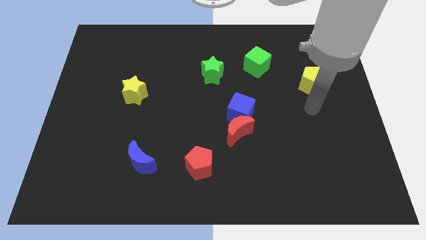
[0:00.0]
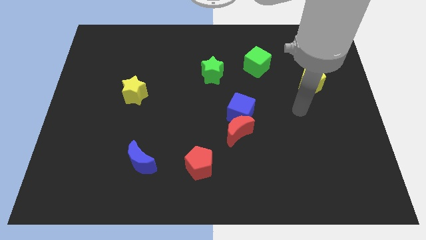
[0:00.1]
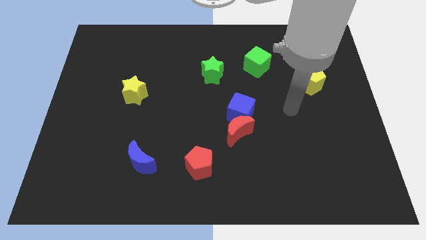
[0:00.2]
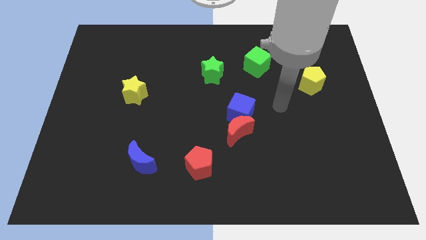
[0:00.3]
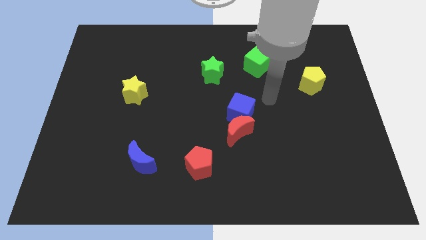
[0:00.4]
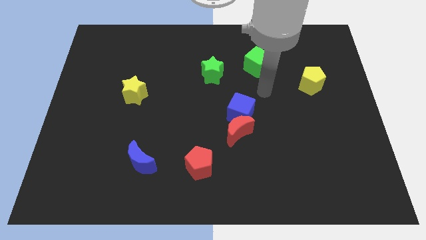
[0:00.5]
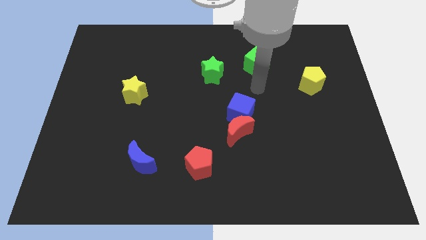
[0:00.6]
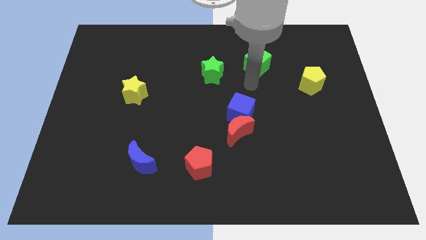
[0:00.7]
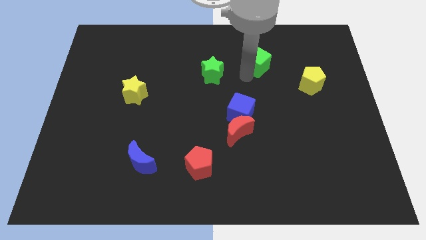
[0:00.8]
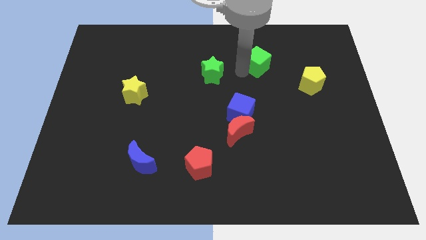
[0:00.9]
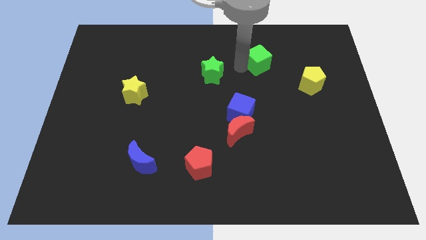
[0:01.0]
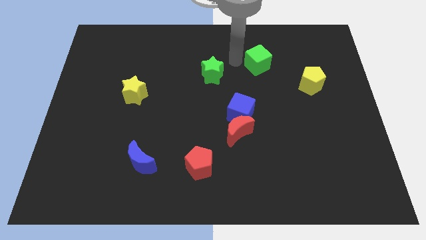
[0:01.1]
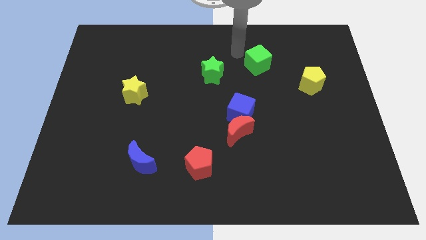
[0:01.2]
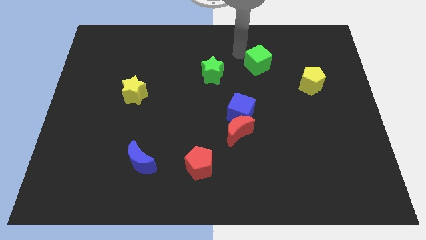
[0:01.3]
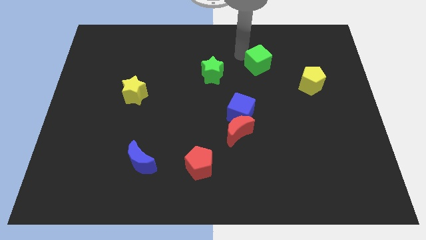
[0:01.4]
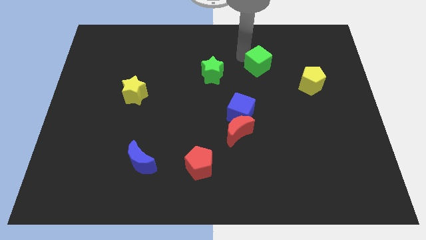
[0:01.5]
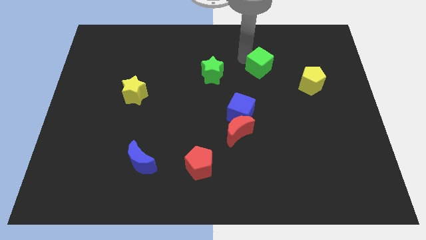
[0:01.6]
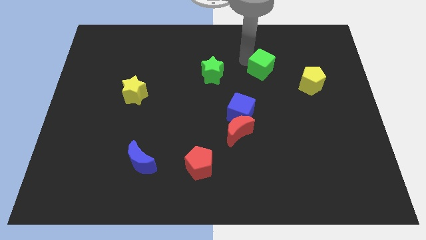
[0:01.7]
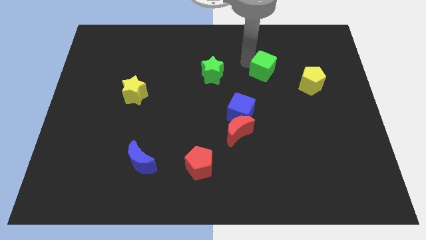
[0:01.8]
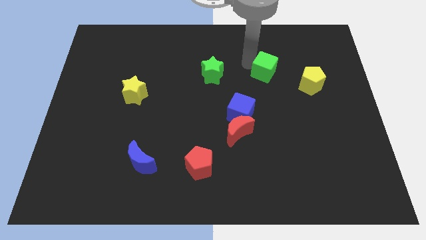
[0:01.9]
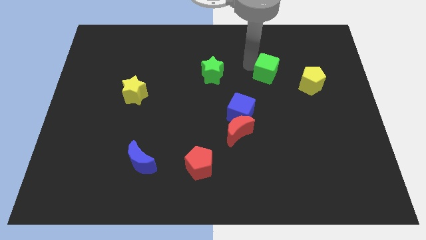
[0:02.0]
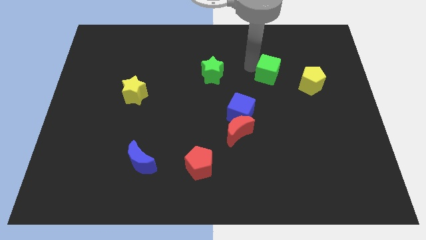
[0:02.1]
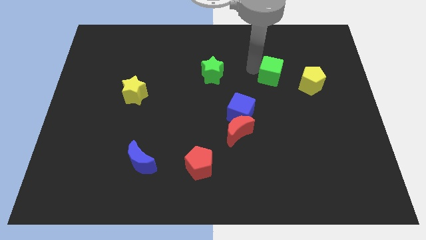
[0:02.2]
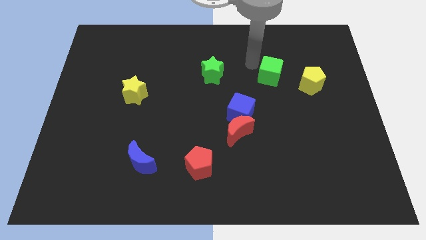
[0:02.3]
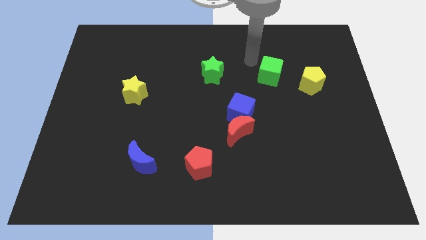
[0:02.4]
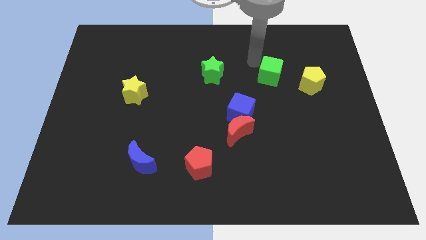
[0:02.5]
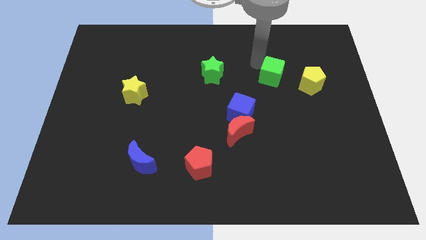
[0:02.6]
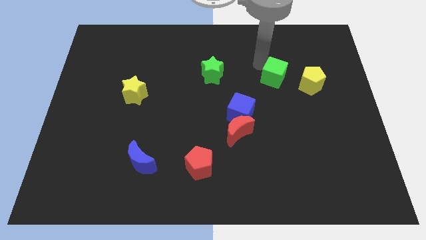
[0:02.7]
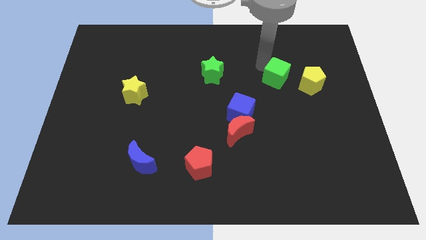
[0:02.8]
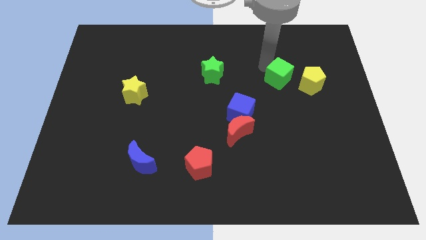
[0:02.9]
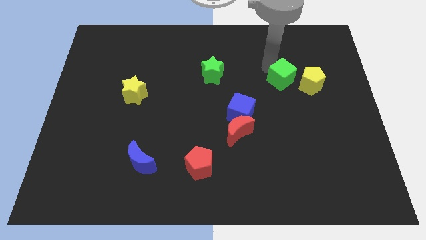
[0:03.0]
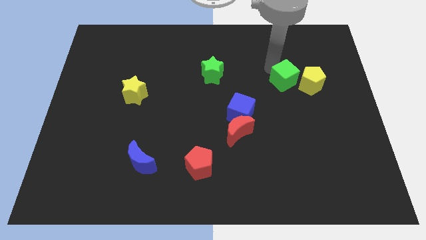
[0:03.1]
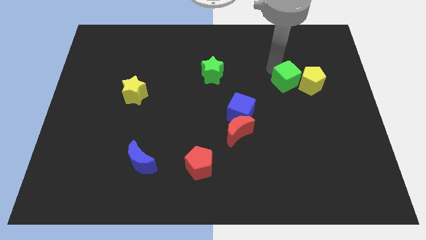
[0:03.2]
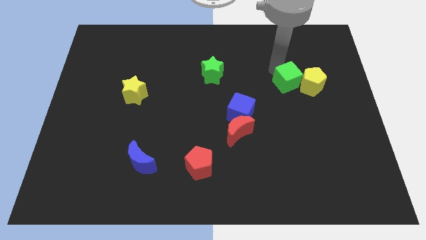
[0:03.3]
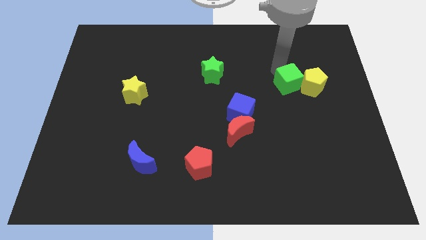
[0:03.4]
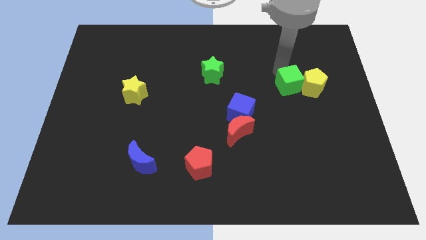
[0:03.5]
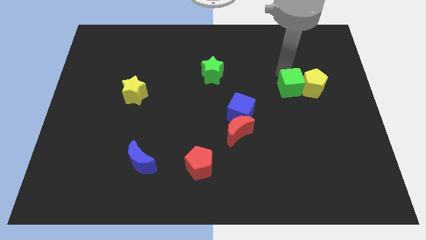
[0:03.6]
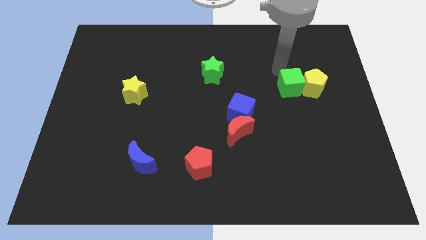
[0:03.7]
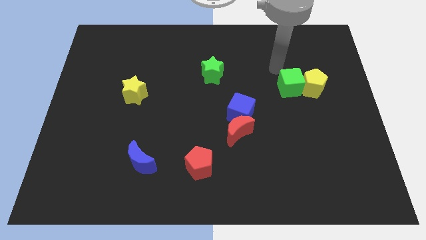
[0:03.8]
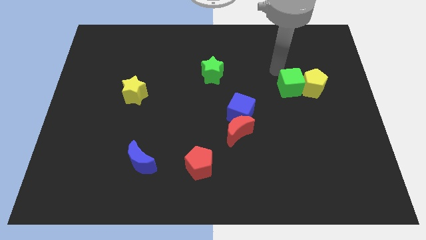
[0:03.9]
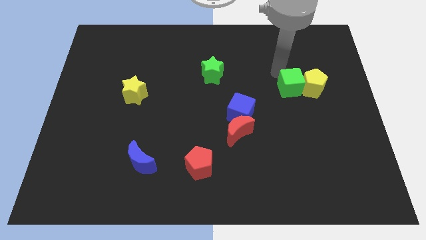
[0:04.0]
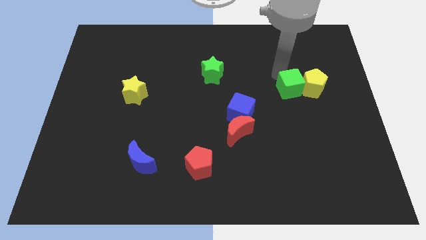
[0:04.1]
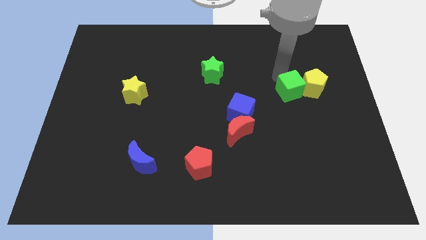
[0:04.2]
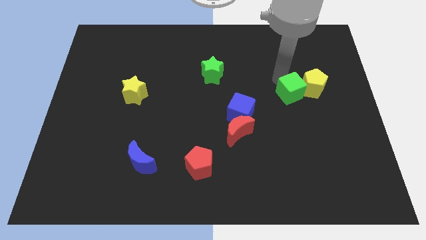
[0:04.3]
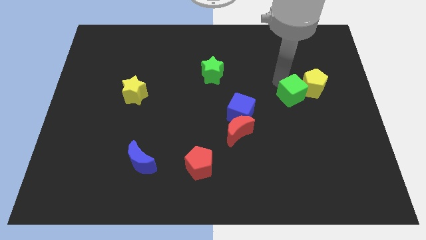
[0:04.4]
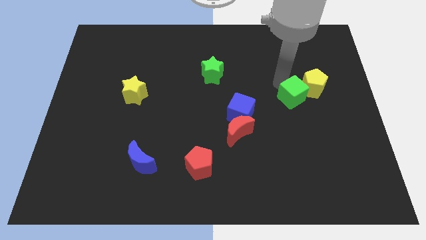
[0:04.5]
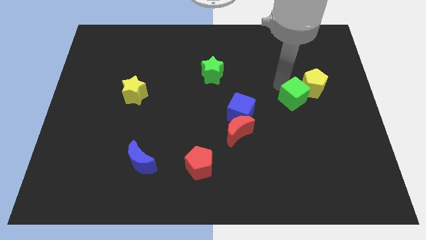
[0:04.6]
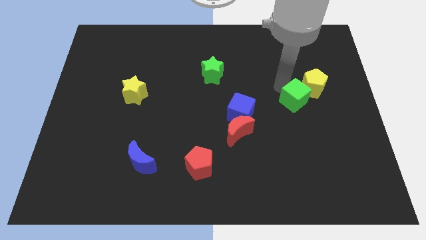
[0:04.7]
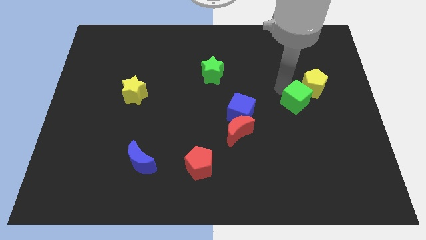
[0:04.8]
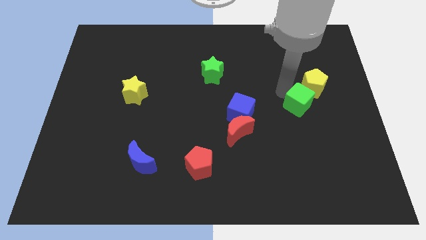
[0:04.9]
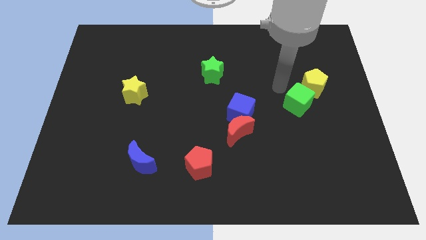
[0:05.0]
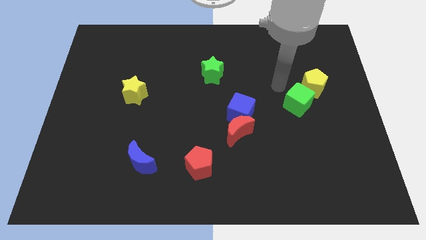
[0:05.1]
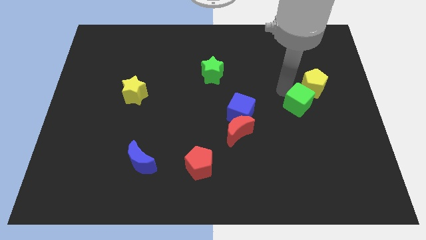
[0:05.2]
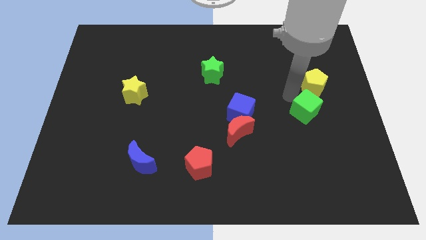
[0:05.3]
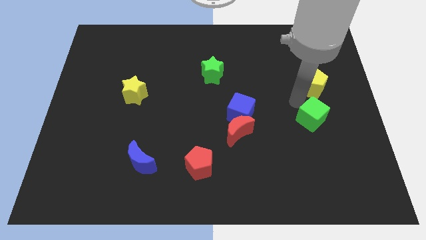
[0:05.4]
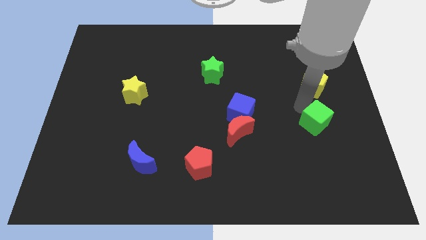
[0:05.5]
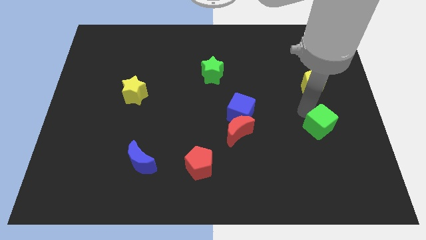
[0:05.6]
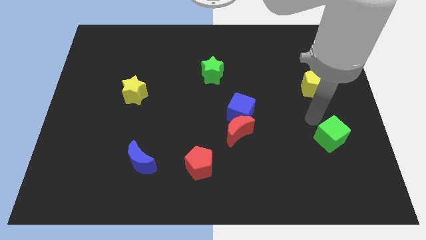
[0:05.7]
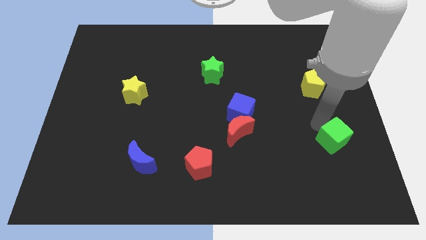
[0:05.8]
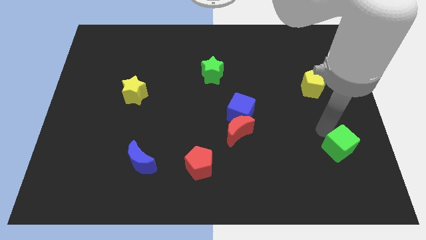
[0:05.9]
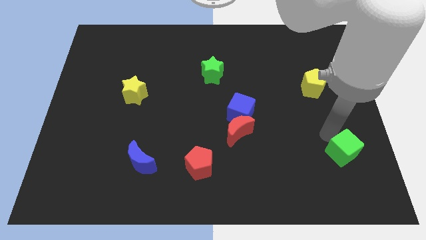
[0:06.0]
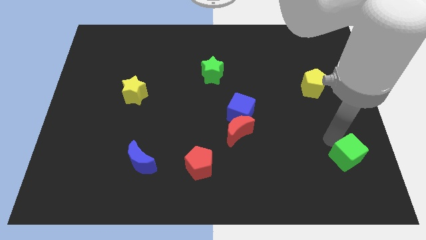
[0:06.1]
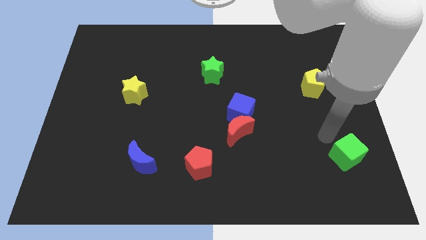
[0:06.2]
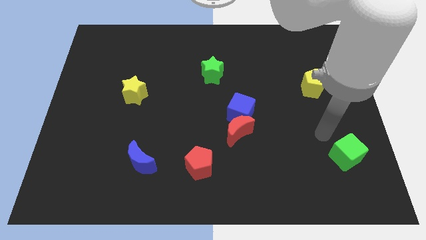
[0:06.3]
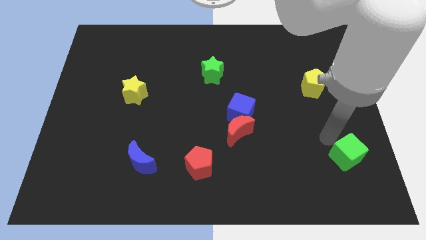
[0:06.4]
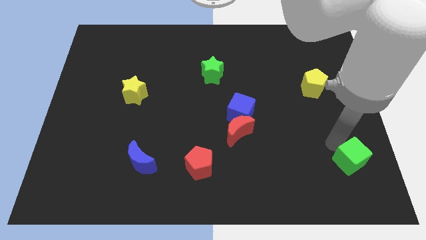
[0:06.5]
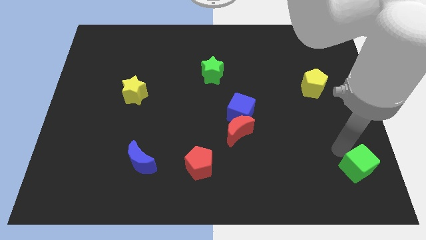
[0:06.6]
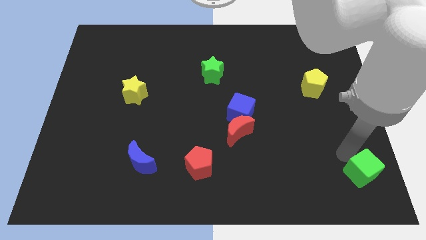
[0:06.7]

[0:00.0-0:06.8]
push the green cube to the bottom right corner
